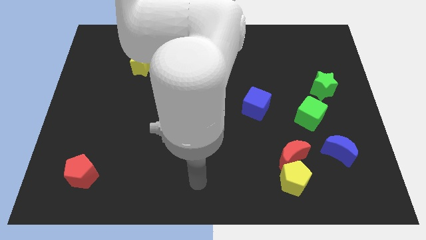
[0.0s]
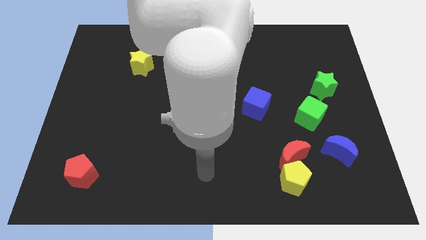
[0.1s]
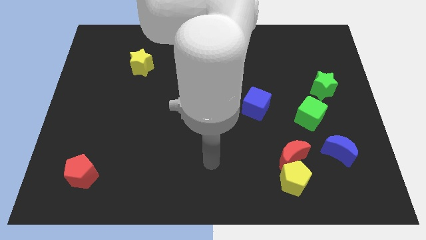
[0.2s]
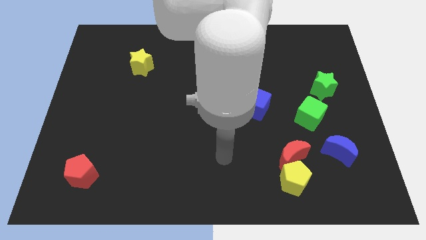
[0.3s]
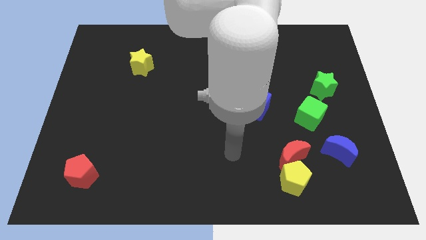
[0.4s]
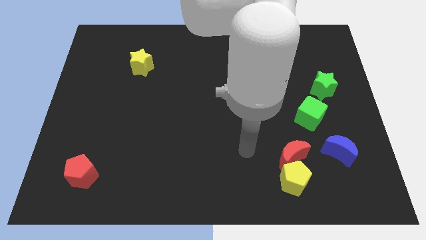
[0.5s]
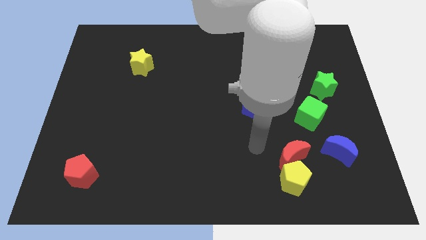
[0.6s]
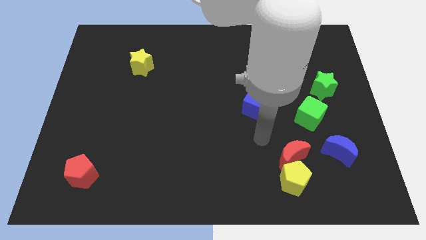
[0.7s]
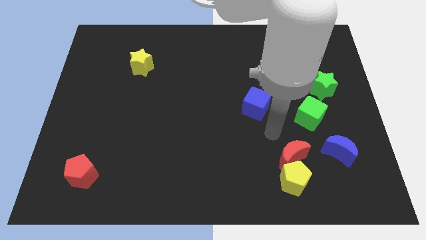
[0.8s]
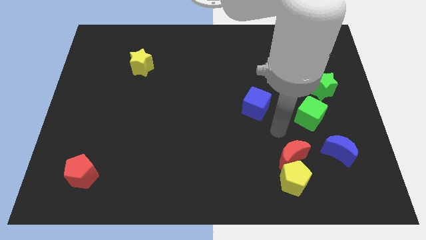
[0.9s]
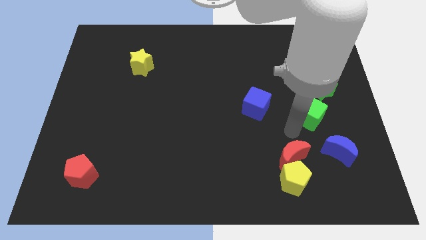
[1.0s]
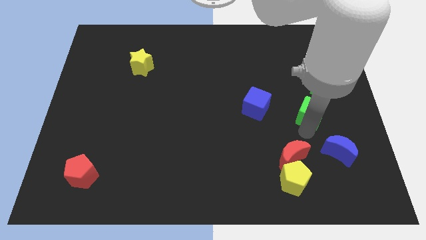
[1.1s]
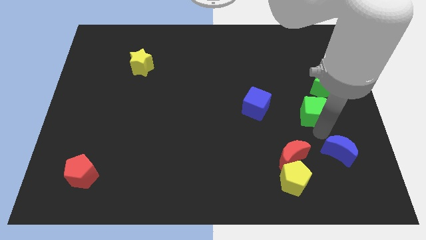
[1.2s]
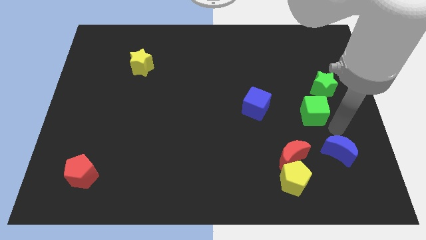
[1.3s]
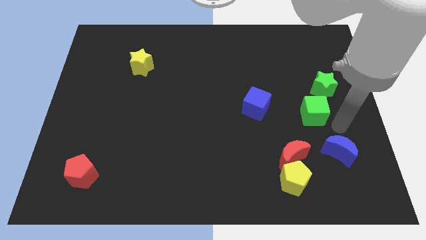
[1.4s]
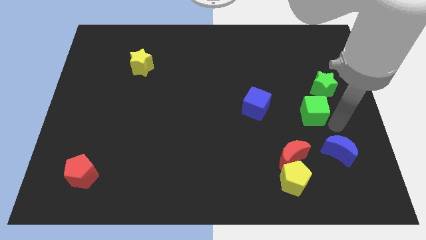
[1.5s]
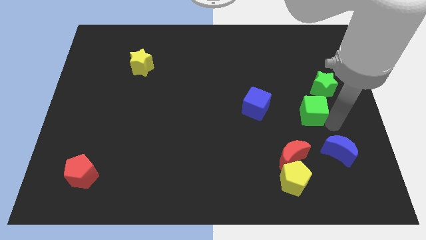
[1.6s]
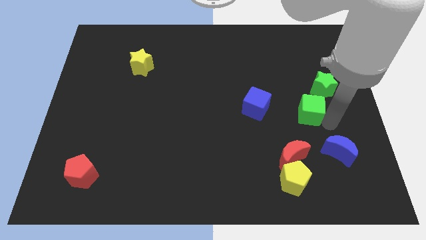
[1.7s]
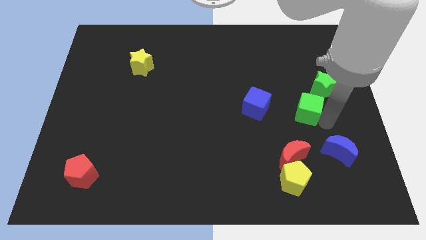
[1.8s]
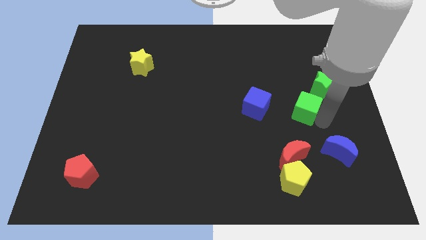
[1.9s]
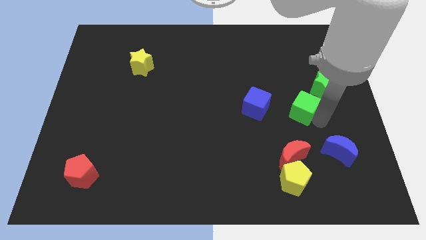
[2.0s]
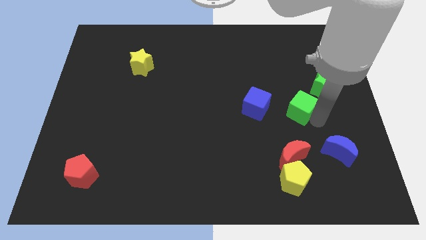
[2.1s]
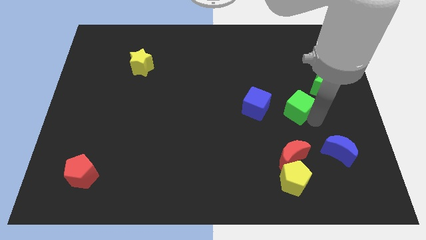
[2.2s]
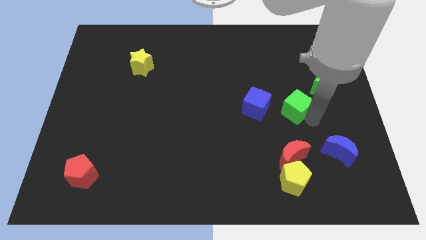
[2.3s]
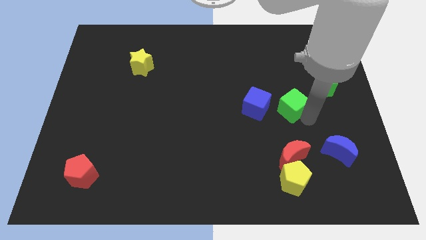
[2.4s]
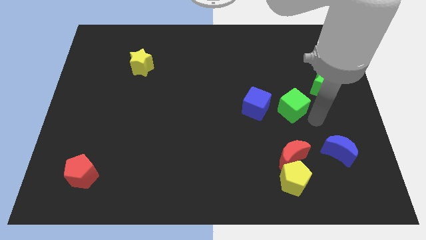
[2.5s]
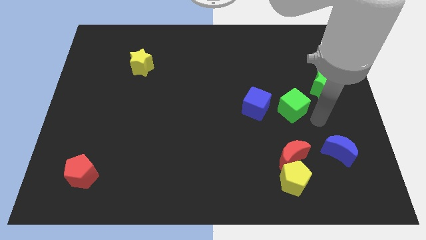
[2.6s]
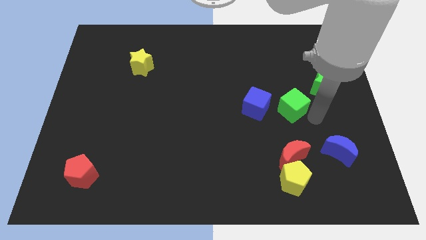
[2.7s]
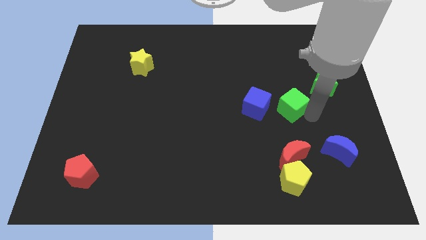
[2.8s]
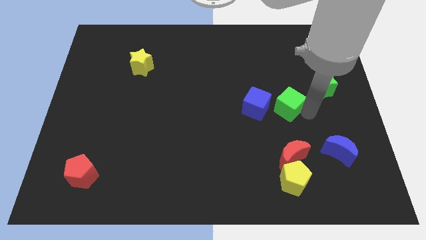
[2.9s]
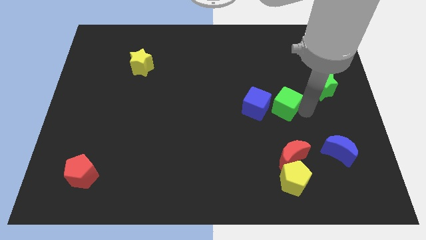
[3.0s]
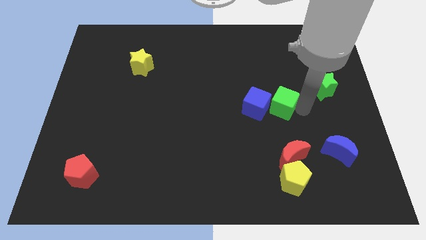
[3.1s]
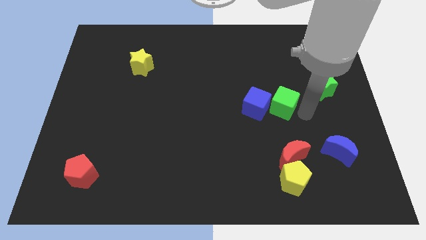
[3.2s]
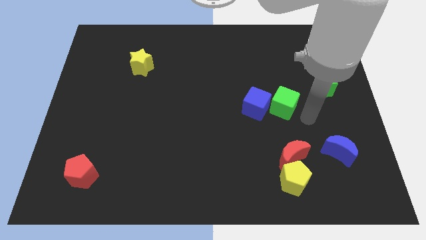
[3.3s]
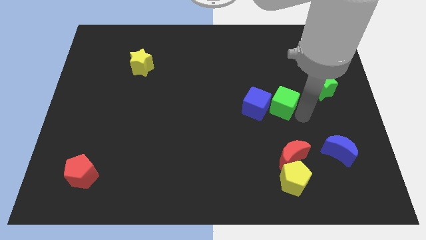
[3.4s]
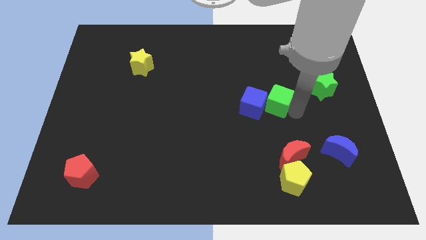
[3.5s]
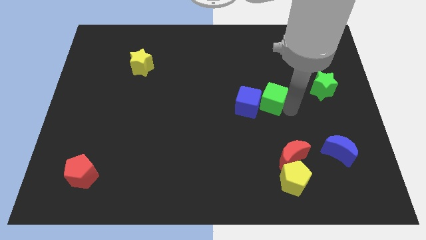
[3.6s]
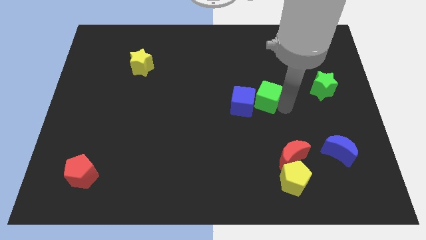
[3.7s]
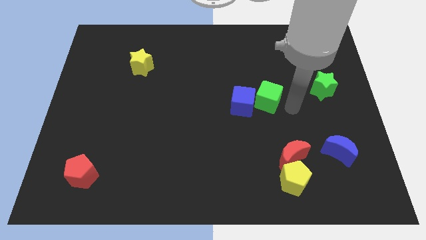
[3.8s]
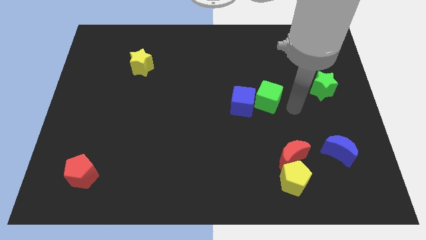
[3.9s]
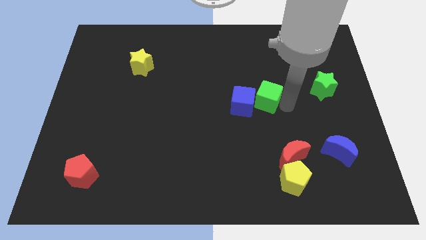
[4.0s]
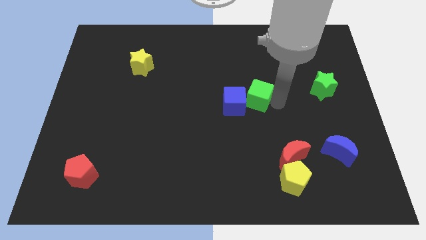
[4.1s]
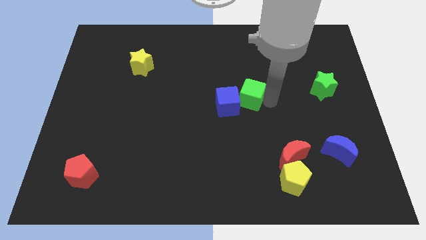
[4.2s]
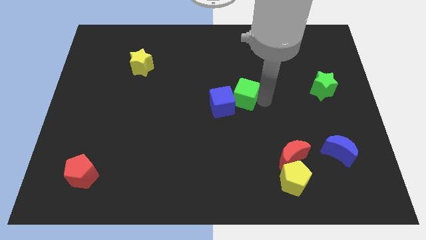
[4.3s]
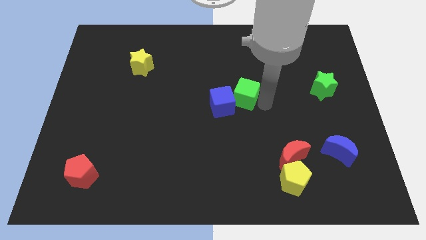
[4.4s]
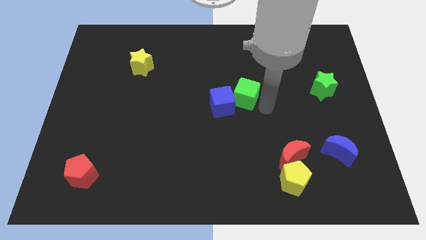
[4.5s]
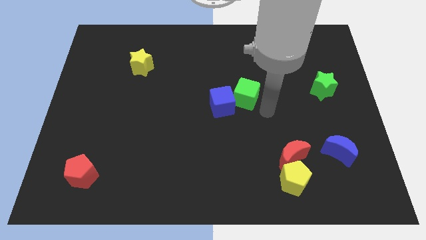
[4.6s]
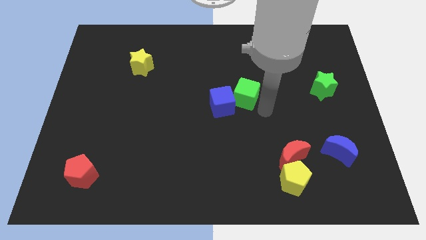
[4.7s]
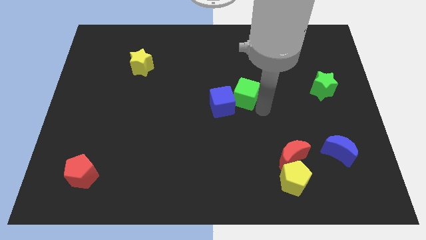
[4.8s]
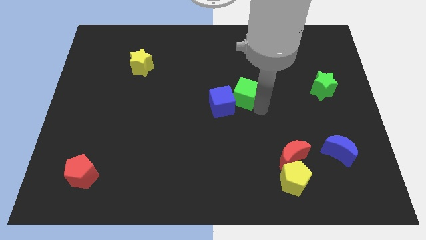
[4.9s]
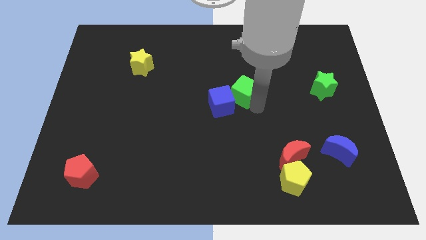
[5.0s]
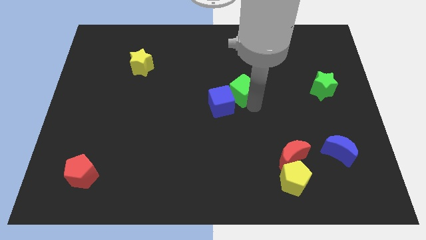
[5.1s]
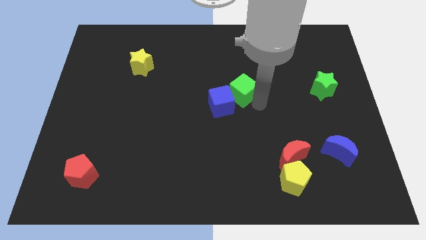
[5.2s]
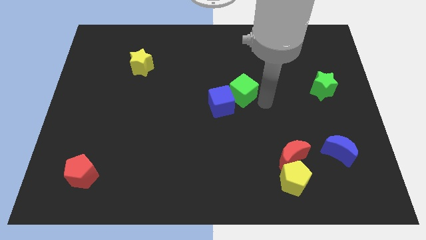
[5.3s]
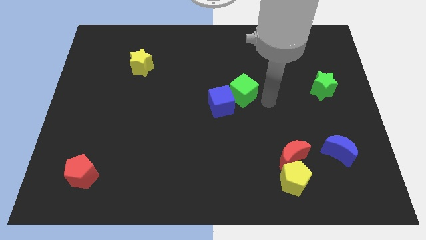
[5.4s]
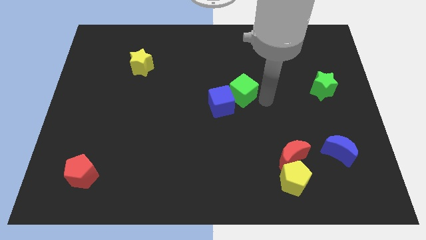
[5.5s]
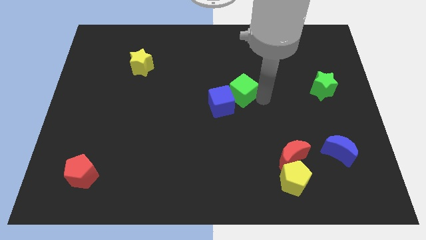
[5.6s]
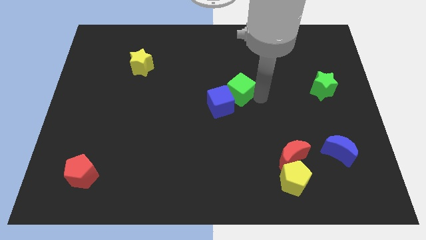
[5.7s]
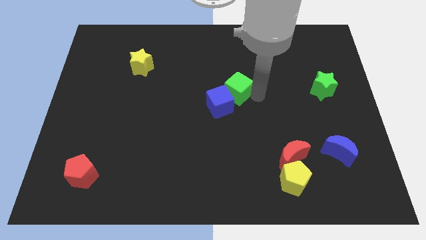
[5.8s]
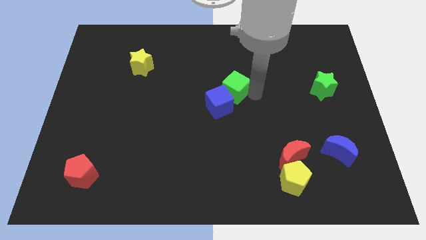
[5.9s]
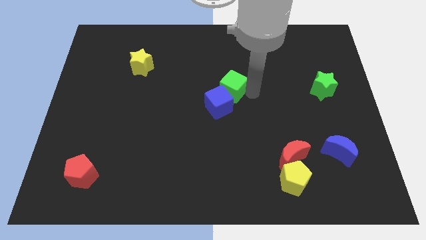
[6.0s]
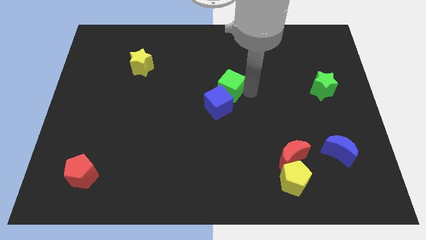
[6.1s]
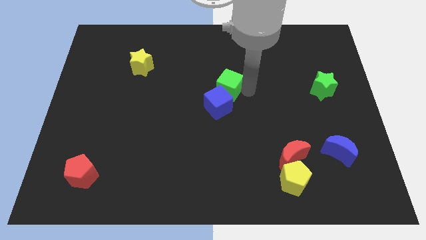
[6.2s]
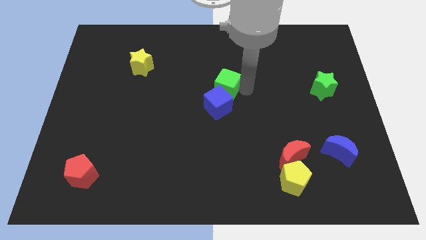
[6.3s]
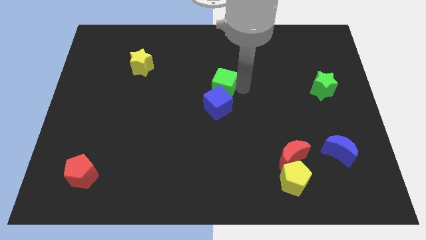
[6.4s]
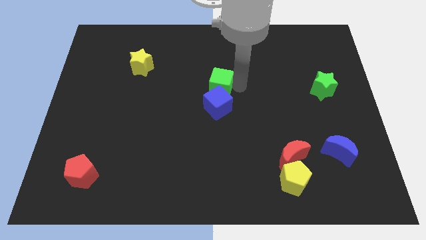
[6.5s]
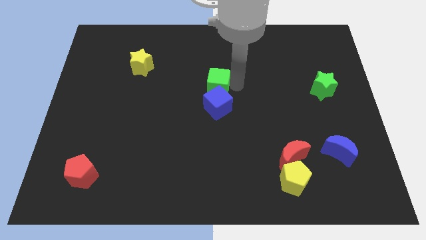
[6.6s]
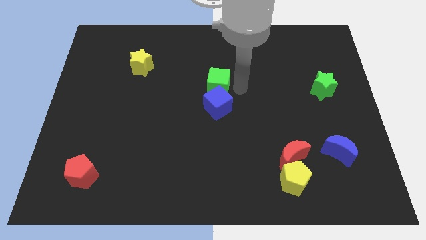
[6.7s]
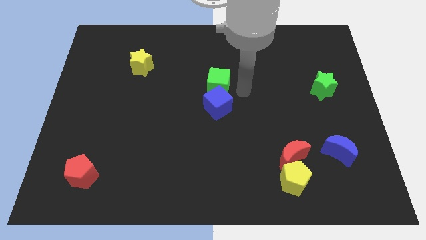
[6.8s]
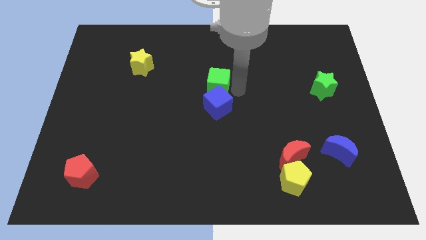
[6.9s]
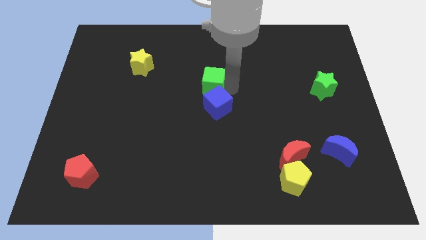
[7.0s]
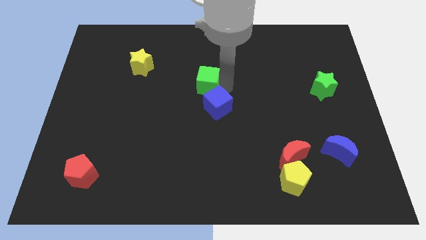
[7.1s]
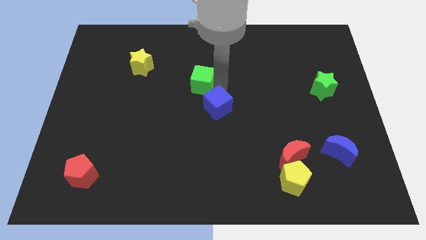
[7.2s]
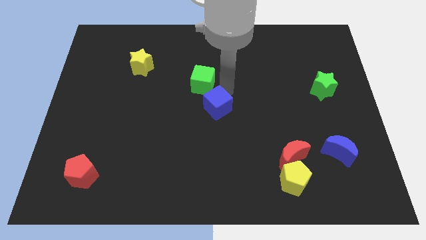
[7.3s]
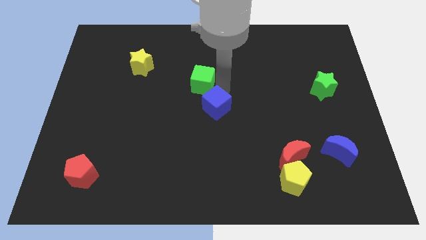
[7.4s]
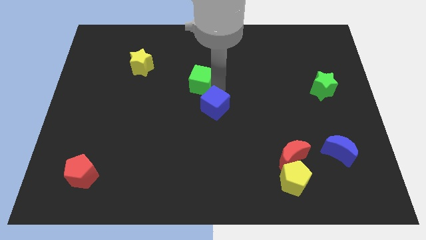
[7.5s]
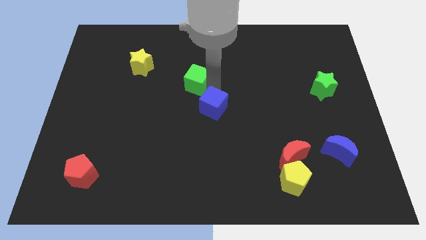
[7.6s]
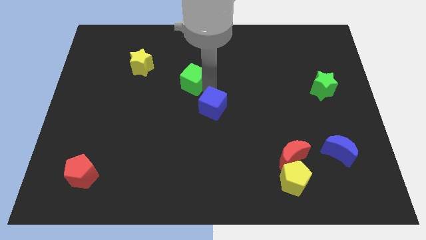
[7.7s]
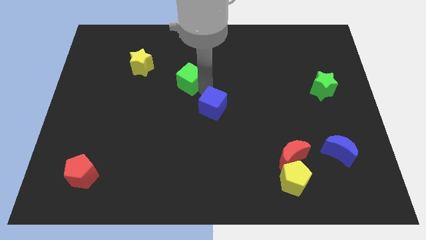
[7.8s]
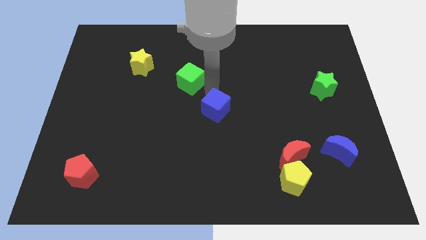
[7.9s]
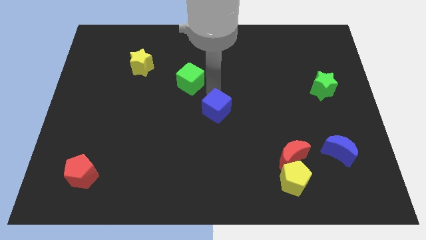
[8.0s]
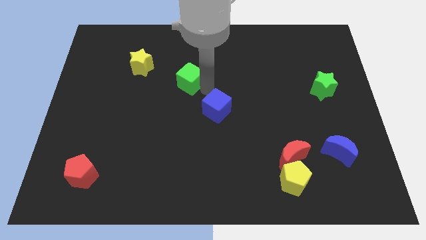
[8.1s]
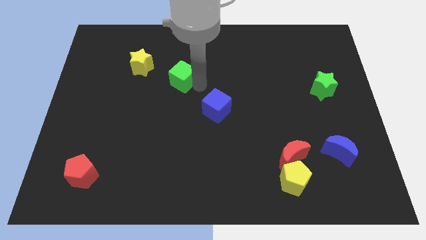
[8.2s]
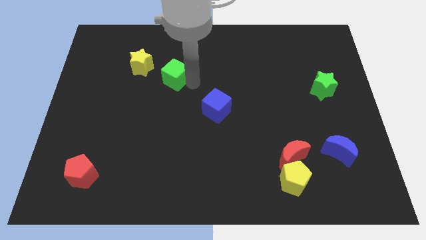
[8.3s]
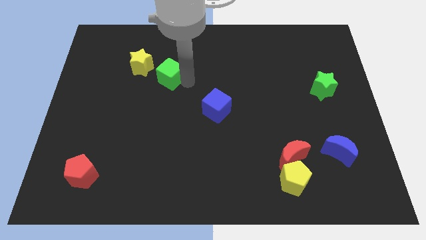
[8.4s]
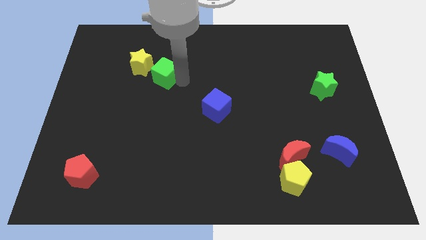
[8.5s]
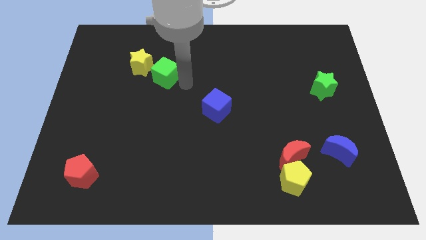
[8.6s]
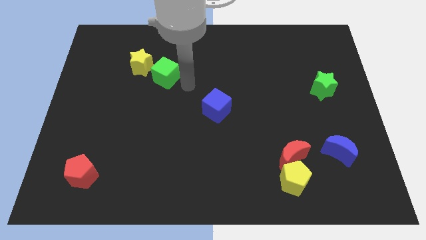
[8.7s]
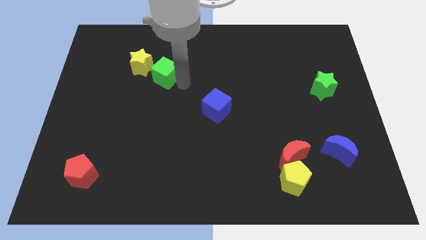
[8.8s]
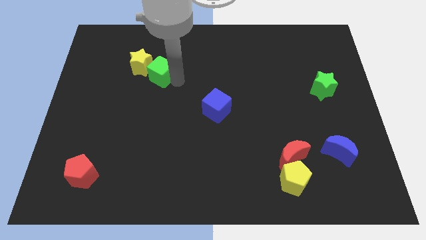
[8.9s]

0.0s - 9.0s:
push the green cube close to the yellow star
